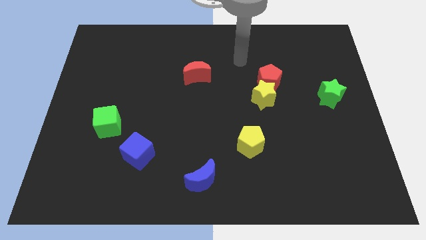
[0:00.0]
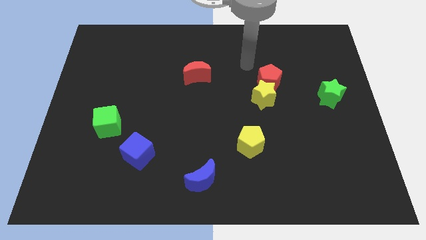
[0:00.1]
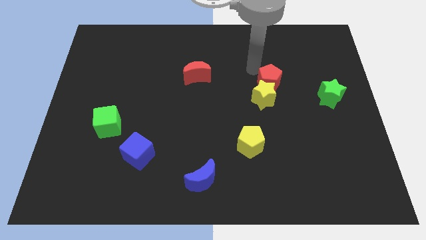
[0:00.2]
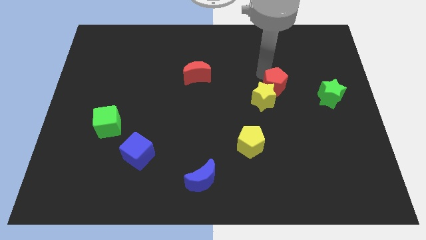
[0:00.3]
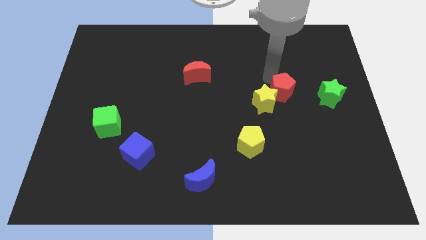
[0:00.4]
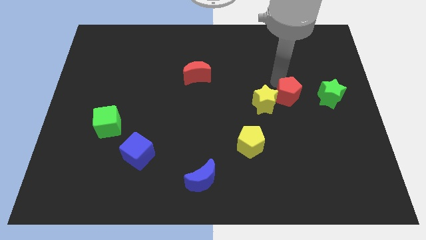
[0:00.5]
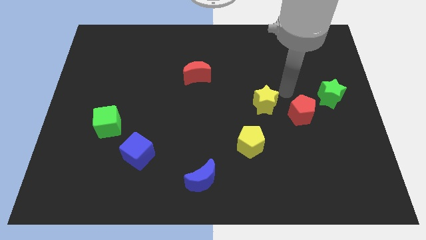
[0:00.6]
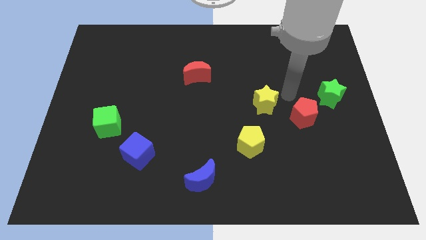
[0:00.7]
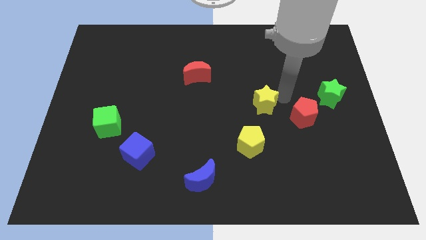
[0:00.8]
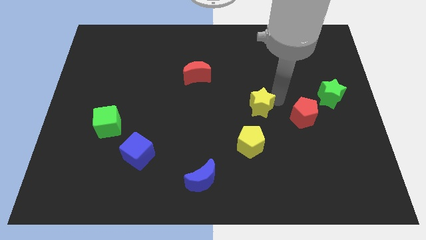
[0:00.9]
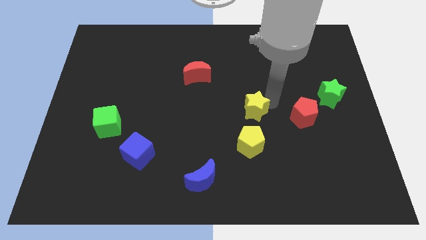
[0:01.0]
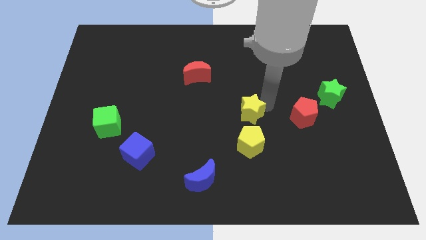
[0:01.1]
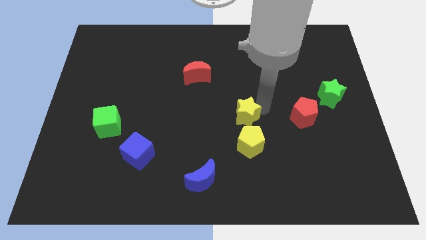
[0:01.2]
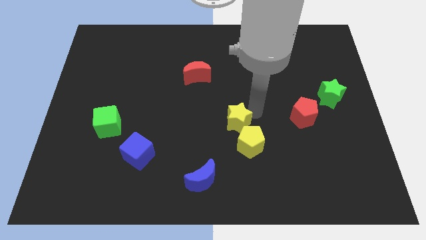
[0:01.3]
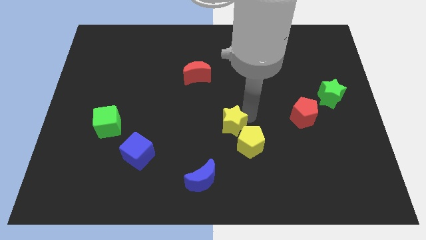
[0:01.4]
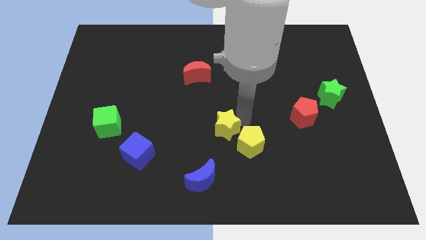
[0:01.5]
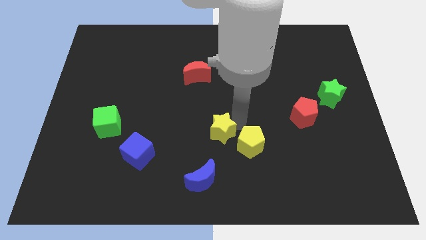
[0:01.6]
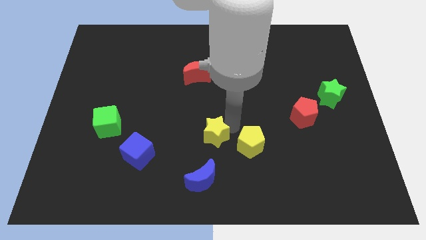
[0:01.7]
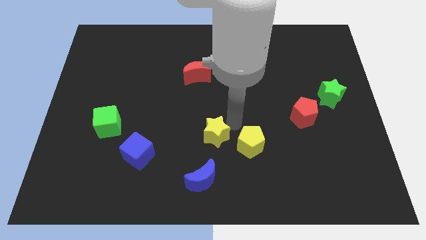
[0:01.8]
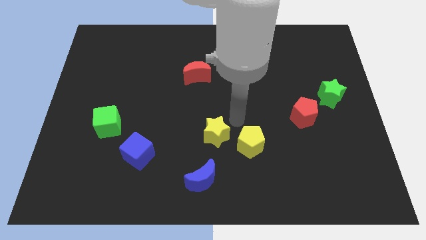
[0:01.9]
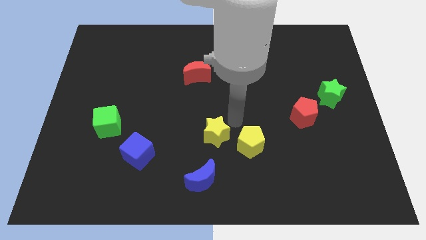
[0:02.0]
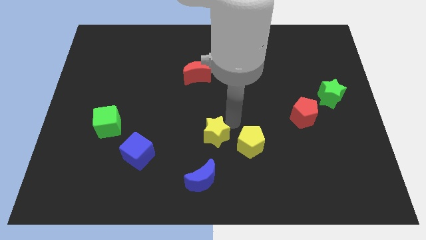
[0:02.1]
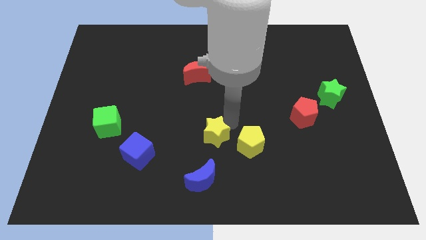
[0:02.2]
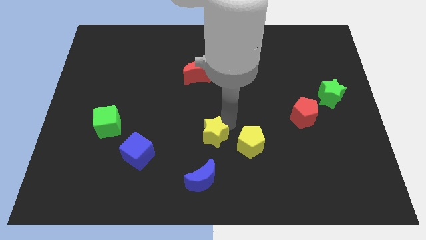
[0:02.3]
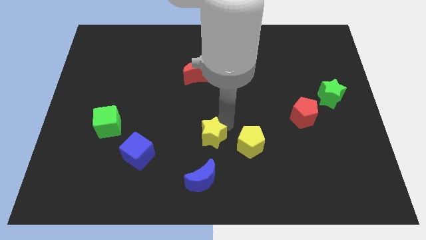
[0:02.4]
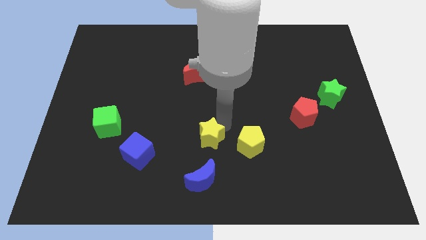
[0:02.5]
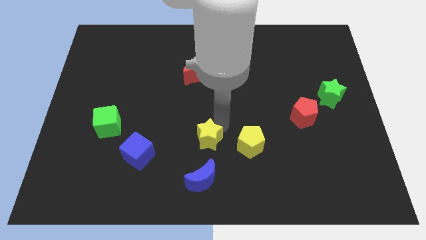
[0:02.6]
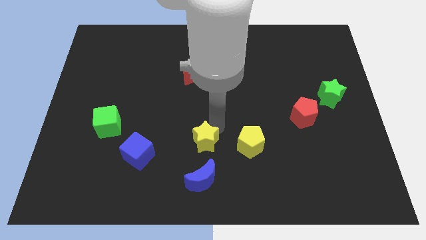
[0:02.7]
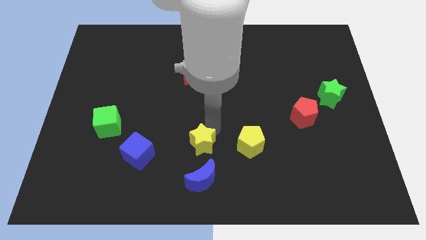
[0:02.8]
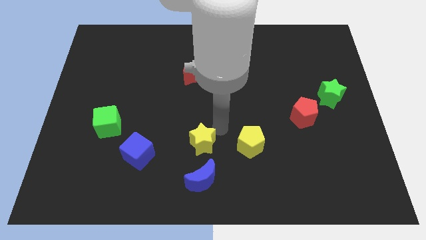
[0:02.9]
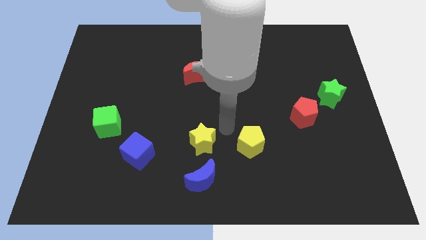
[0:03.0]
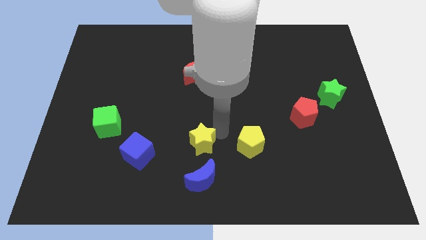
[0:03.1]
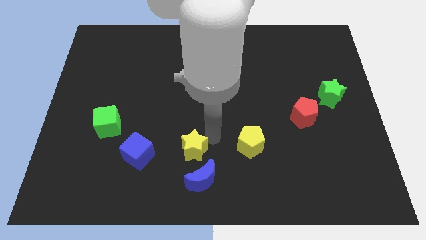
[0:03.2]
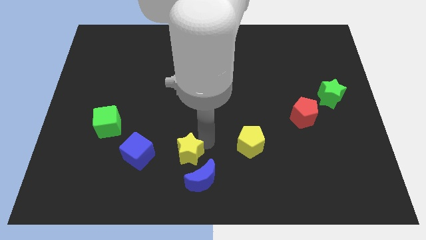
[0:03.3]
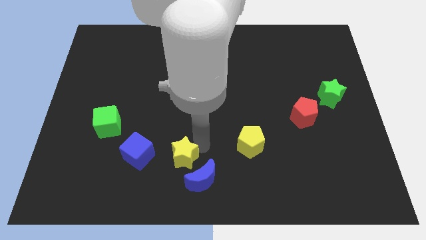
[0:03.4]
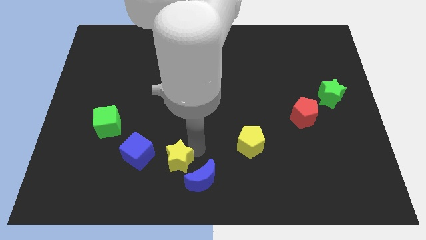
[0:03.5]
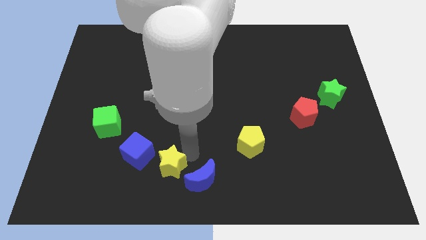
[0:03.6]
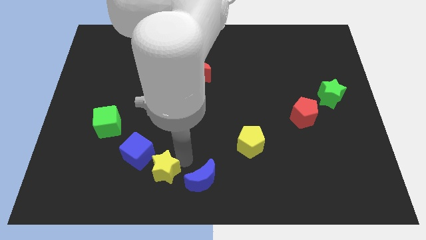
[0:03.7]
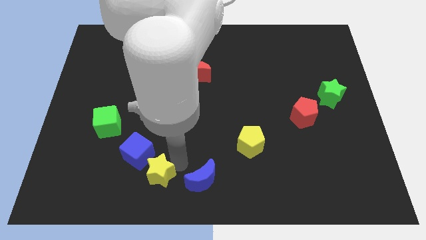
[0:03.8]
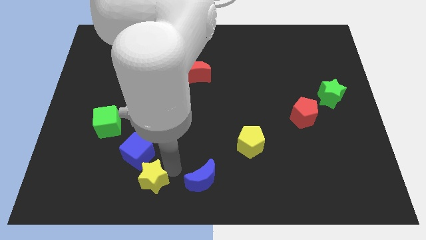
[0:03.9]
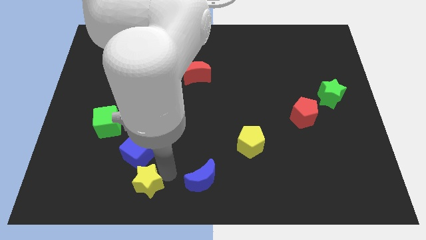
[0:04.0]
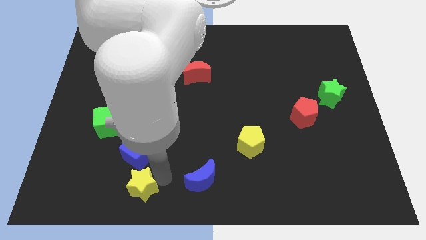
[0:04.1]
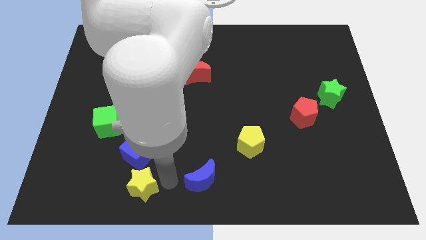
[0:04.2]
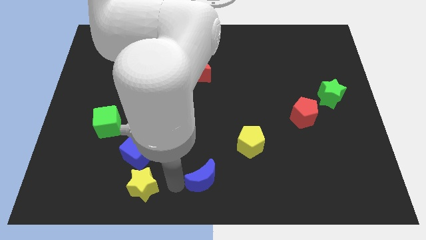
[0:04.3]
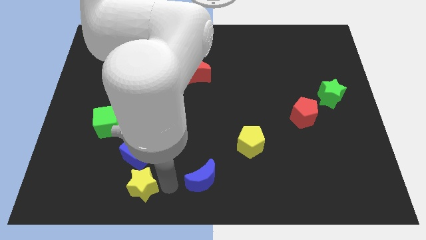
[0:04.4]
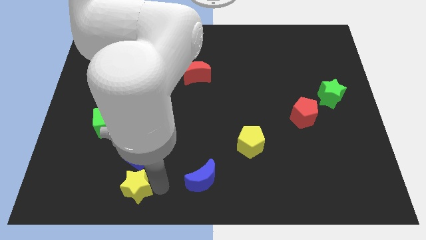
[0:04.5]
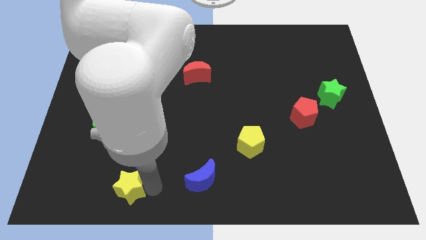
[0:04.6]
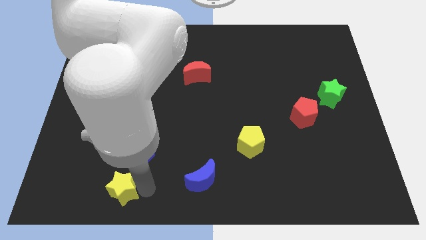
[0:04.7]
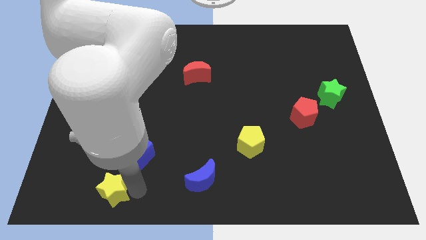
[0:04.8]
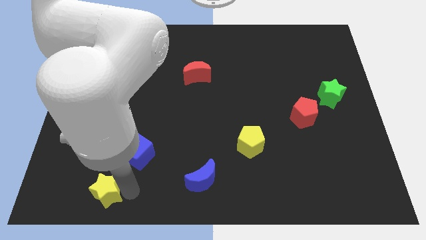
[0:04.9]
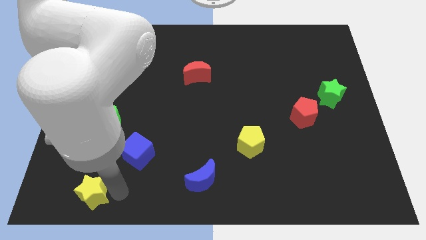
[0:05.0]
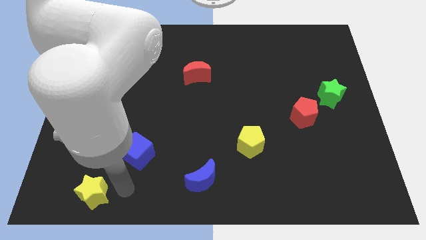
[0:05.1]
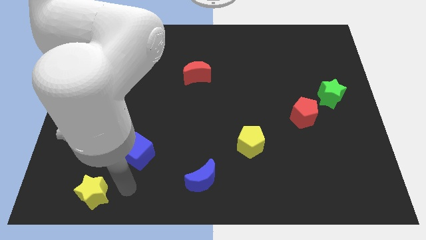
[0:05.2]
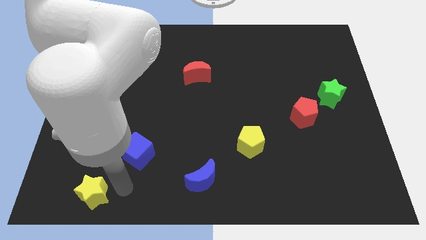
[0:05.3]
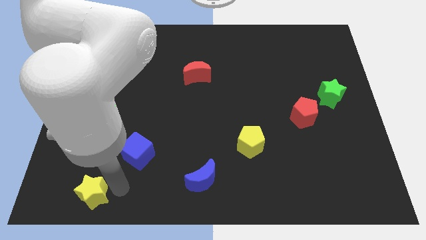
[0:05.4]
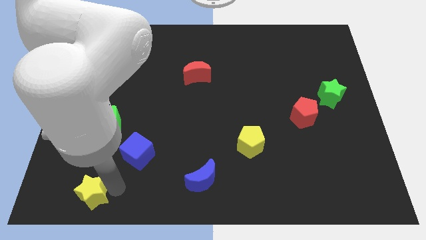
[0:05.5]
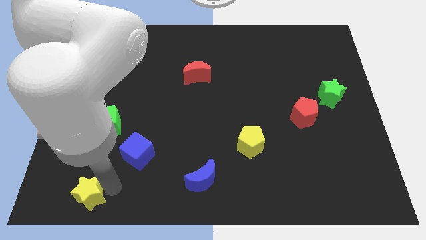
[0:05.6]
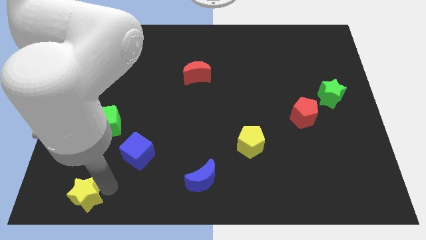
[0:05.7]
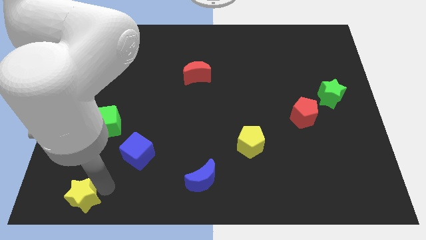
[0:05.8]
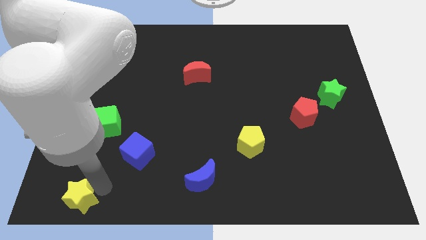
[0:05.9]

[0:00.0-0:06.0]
move the yellow star to the bottom left of the board
